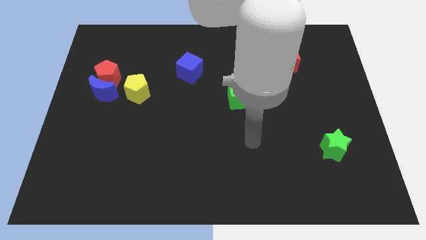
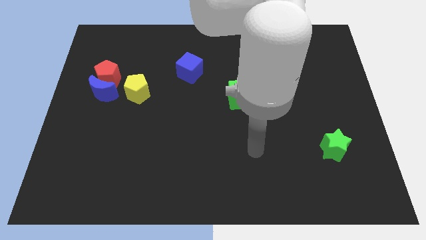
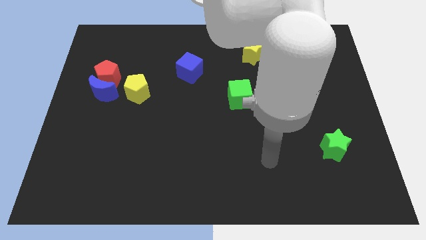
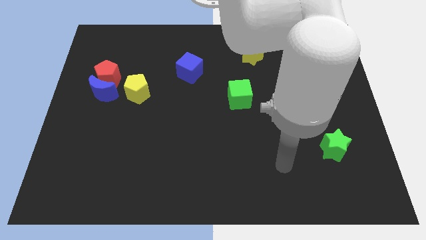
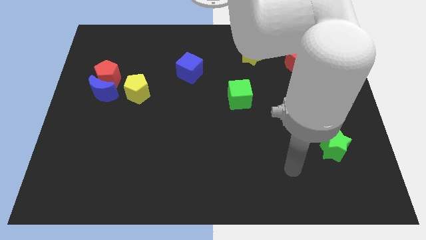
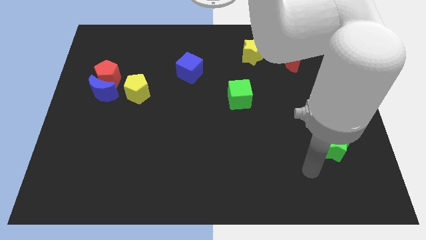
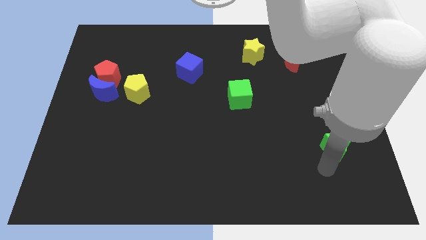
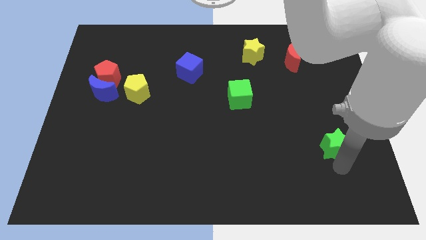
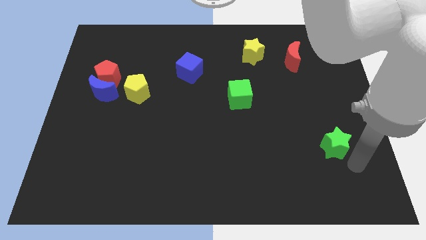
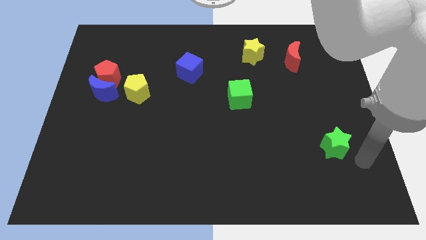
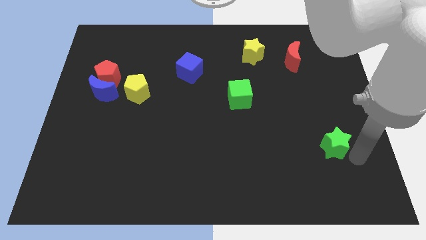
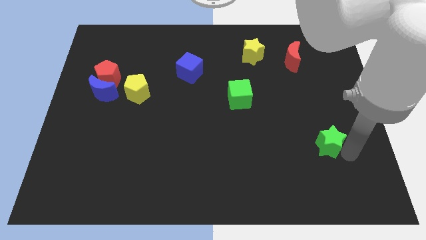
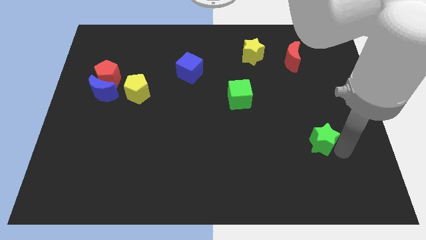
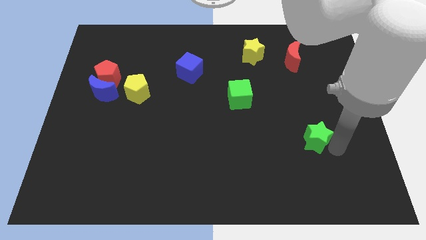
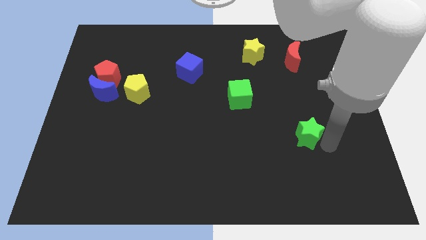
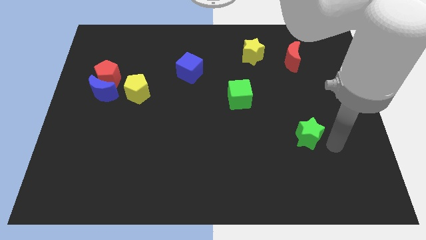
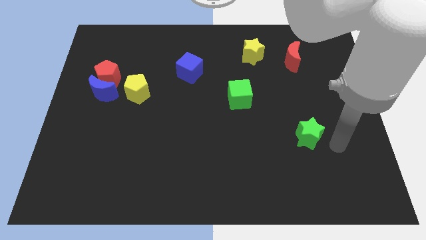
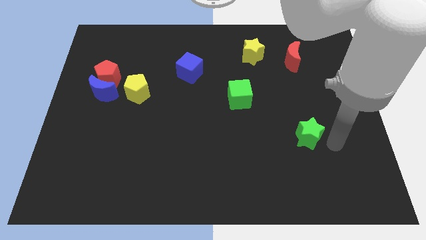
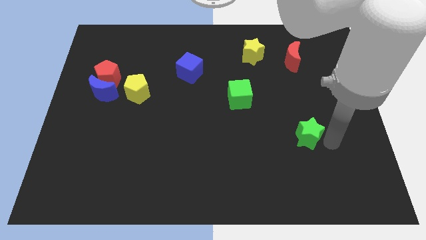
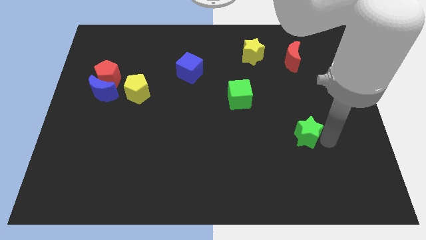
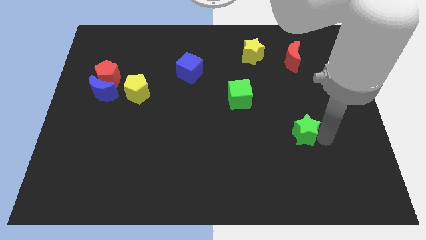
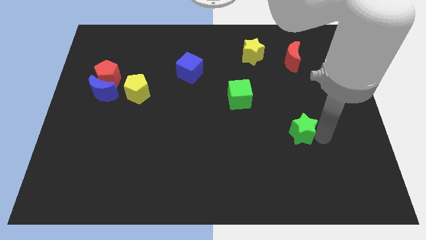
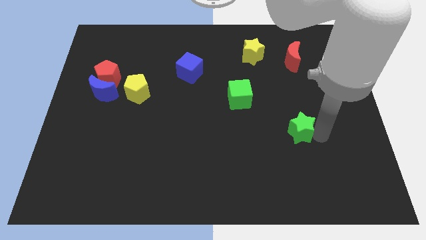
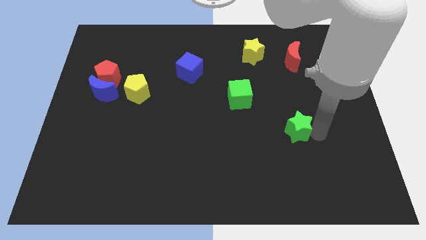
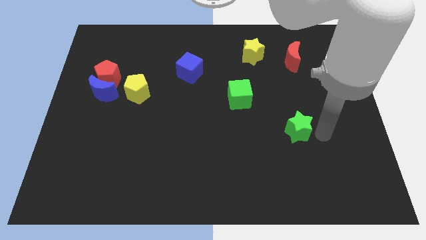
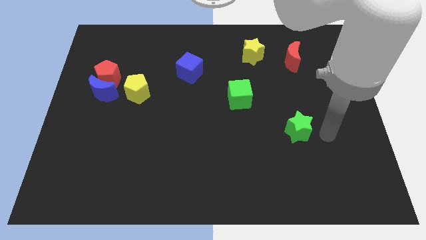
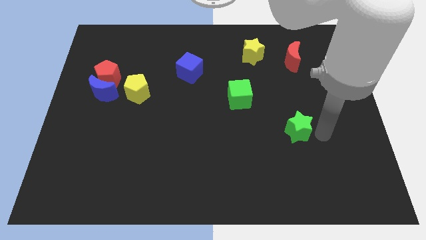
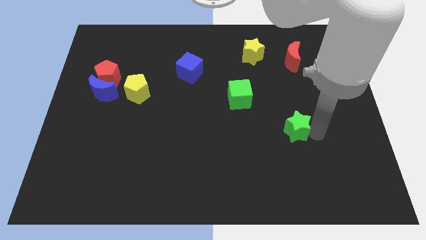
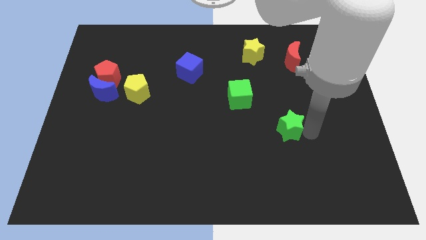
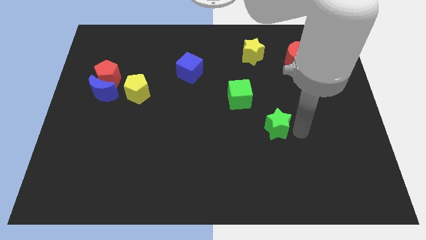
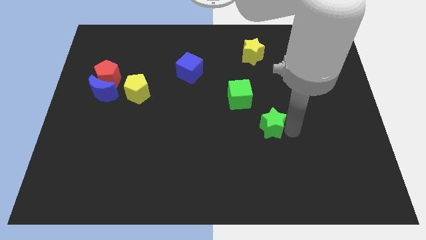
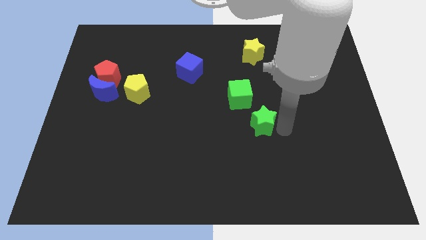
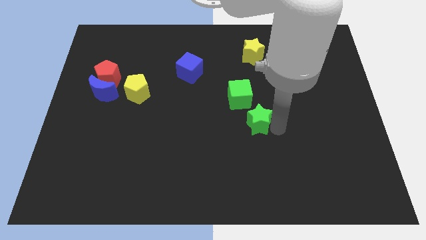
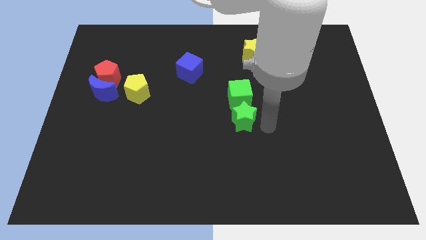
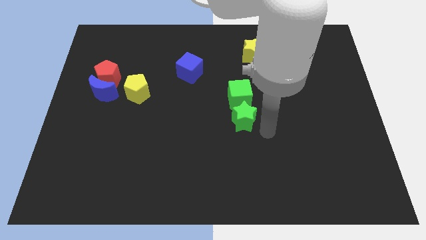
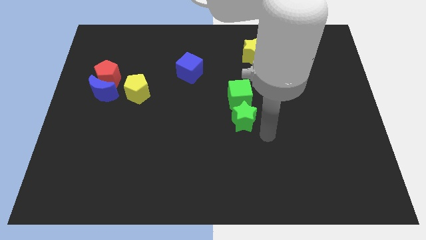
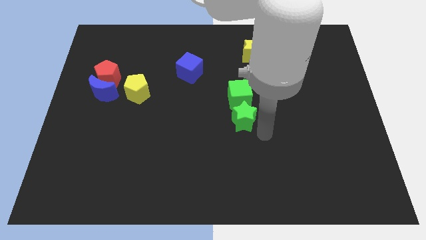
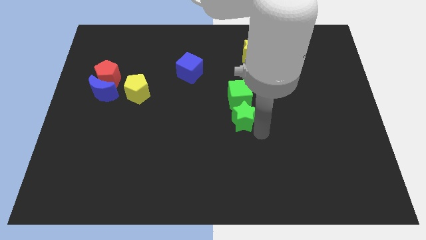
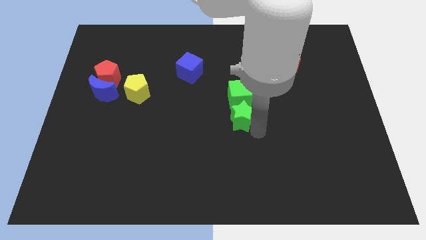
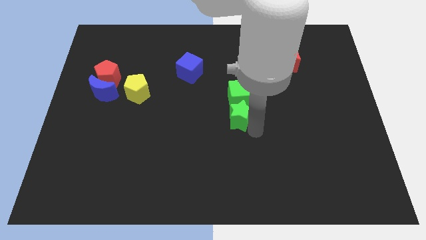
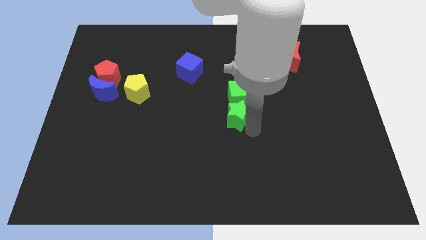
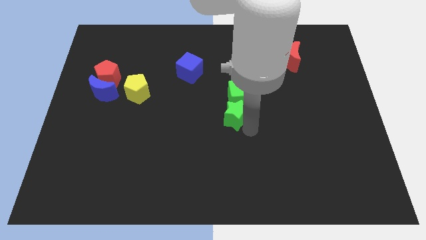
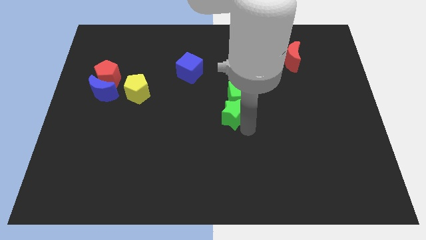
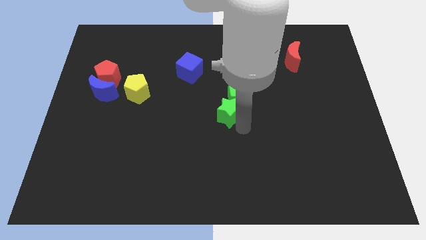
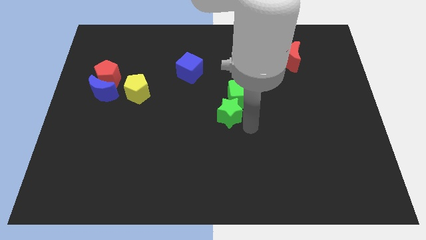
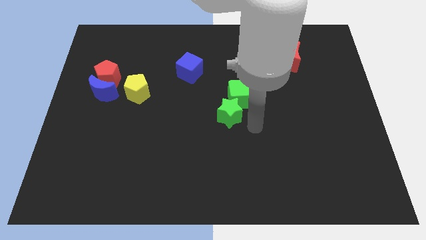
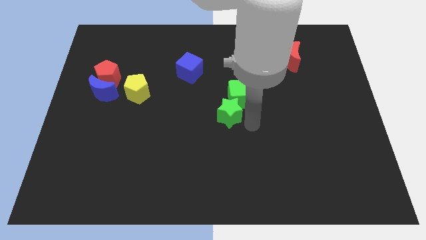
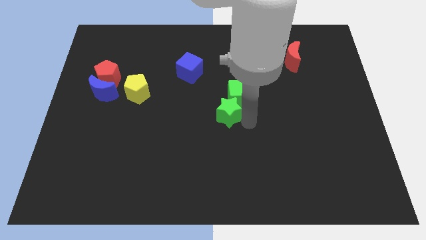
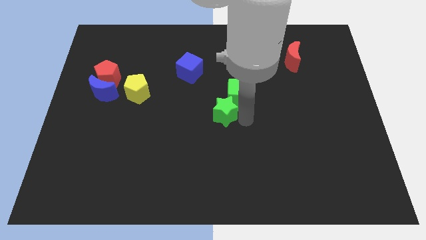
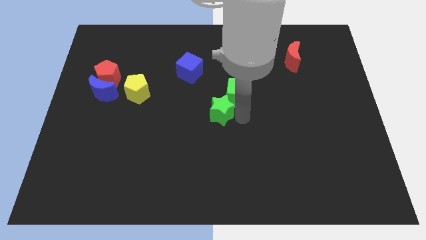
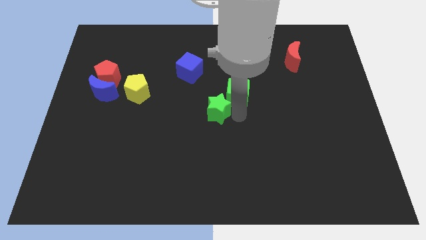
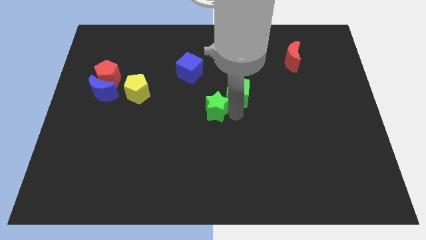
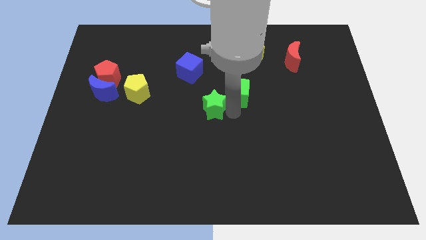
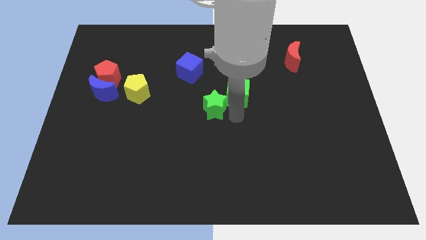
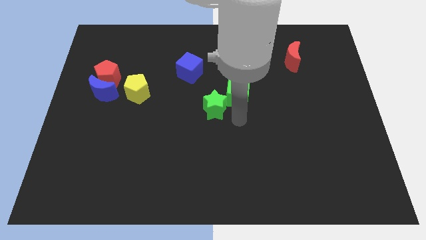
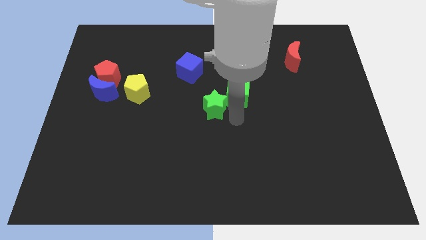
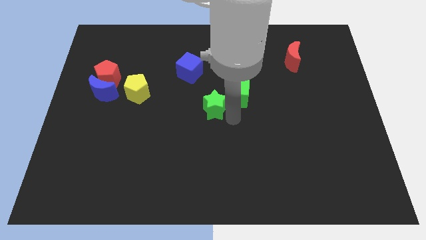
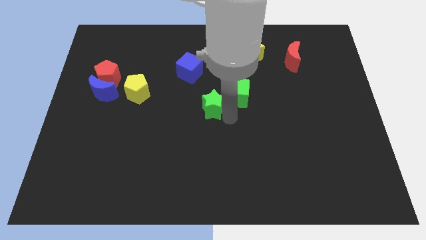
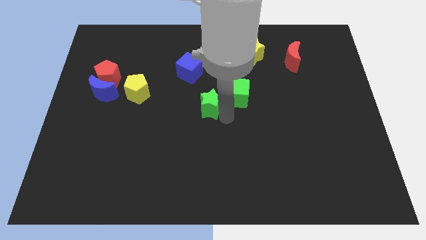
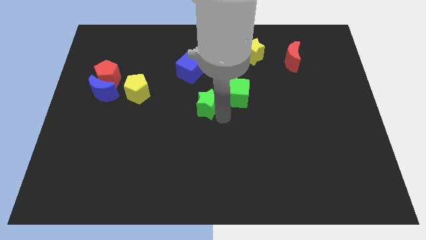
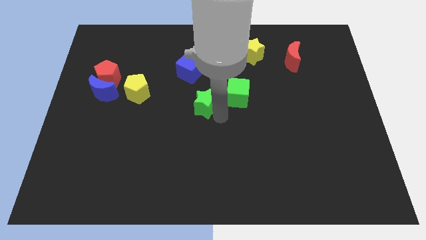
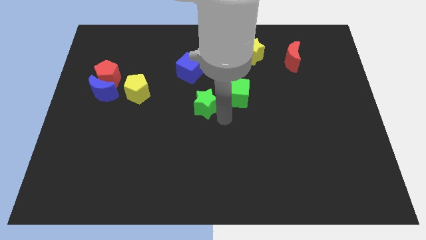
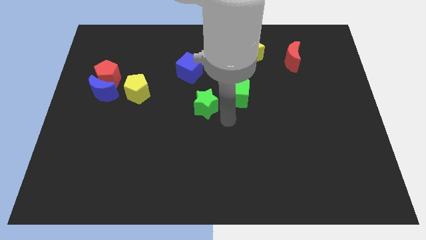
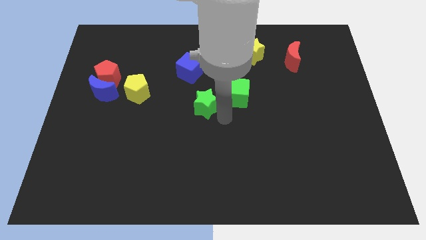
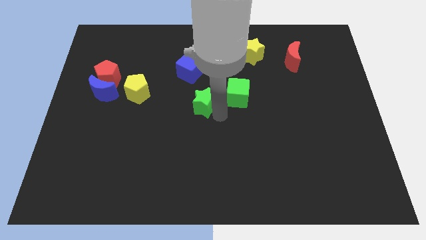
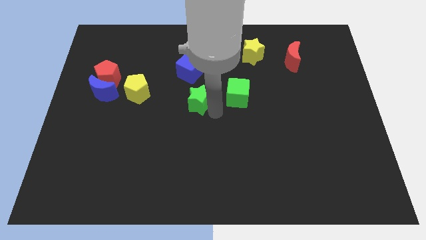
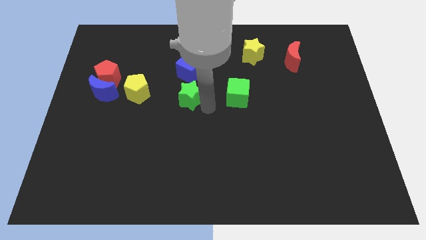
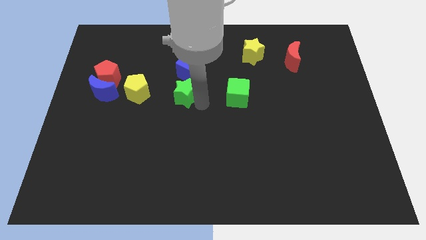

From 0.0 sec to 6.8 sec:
move the green star to the bottom left of the blue cube

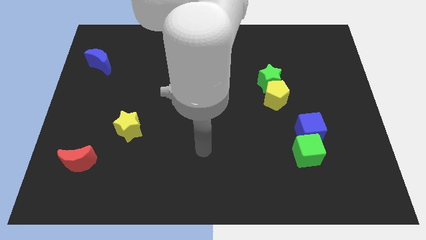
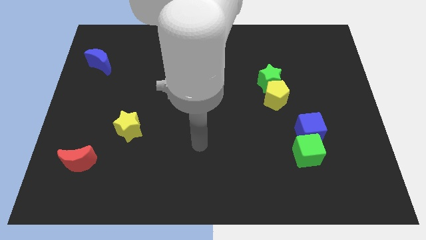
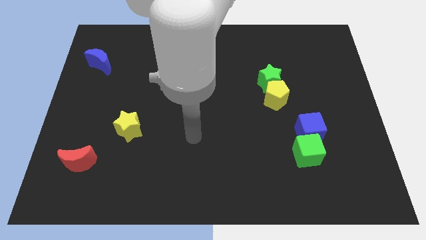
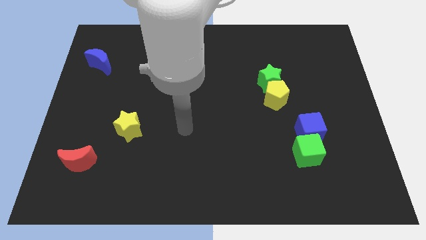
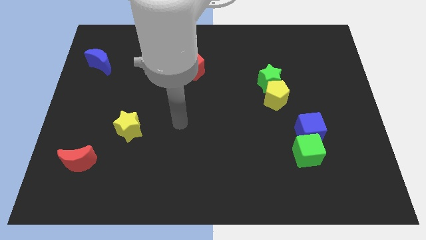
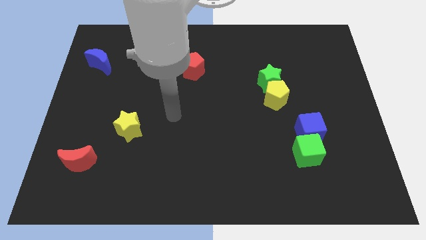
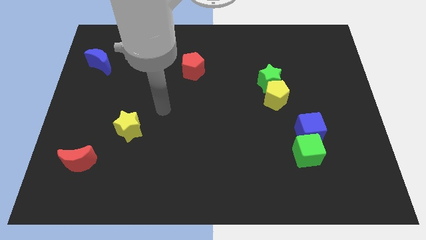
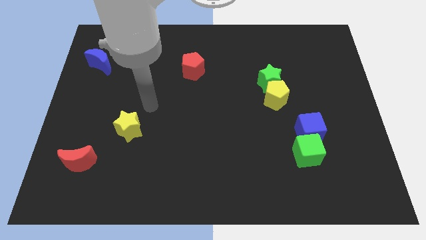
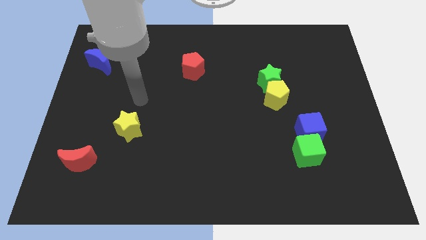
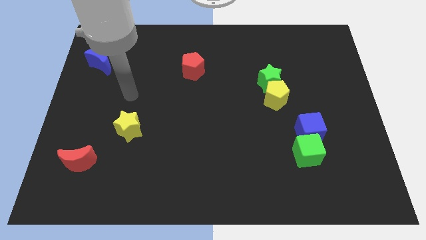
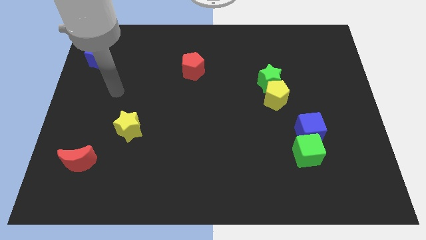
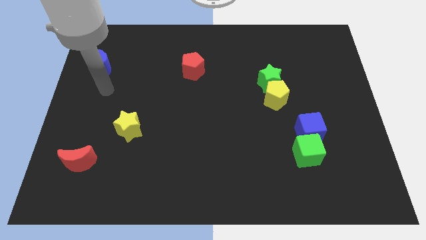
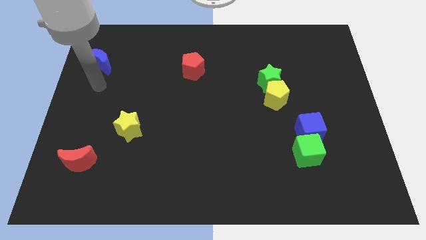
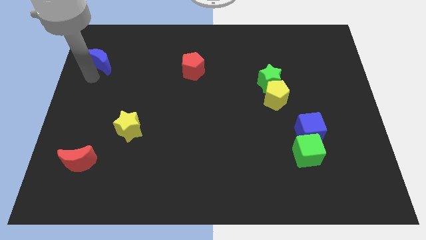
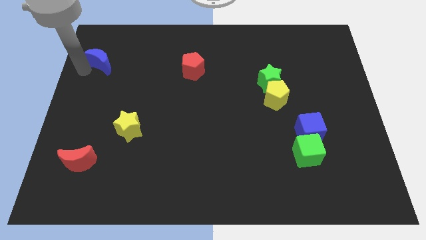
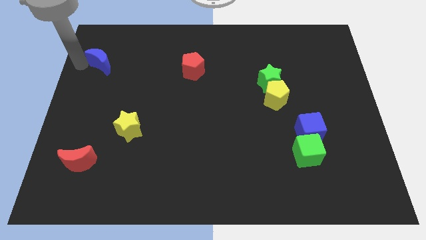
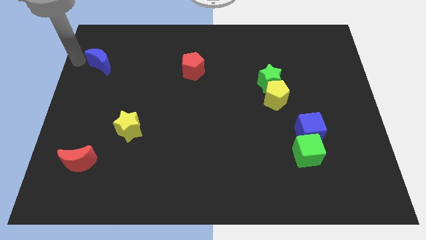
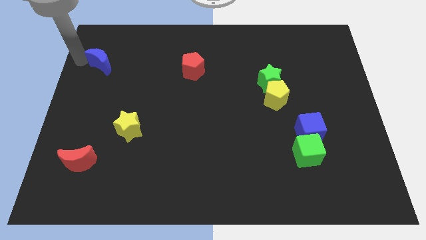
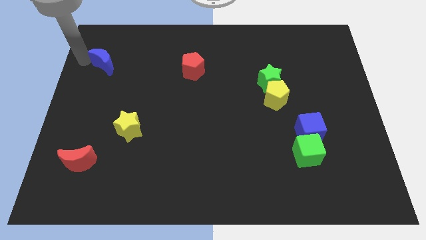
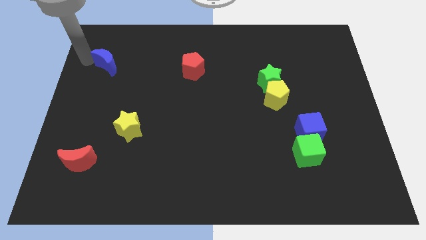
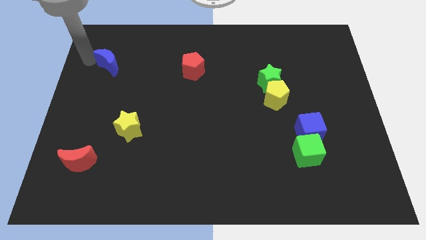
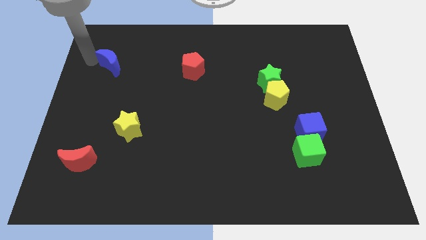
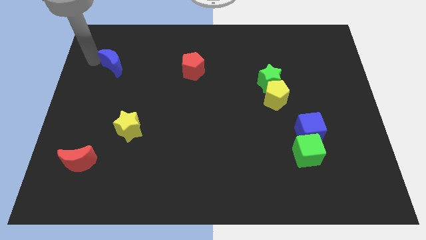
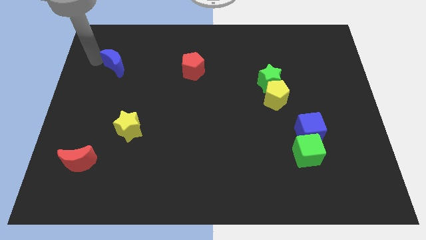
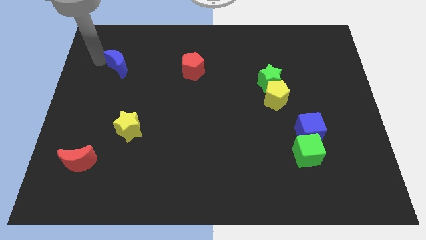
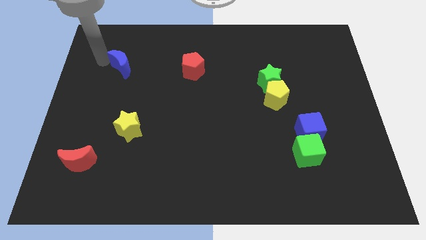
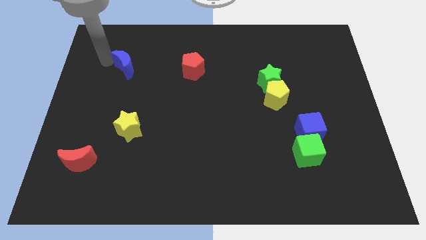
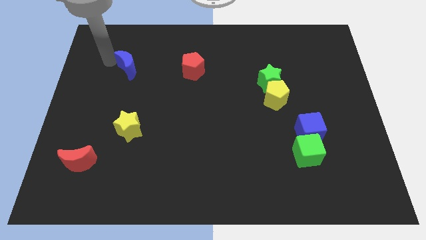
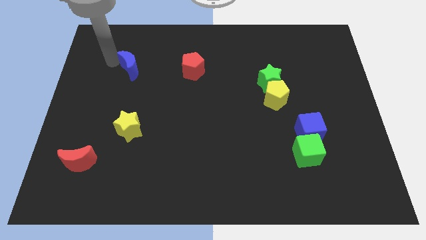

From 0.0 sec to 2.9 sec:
put the blue moon to the left of the red pentagon
